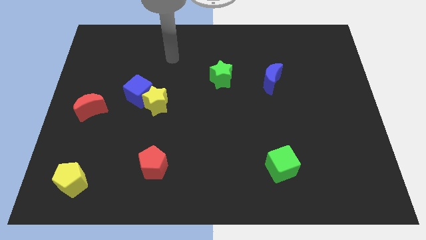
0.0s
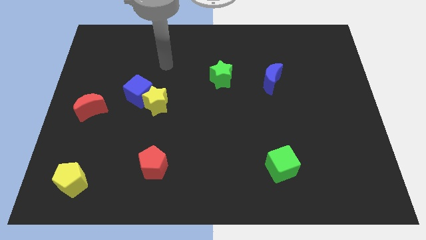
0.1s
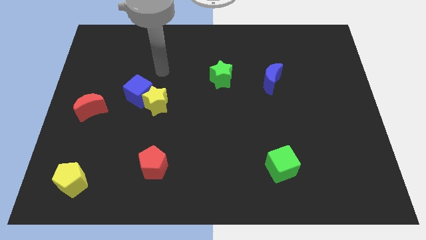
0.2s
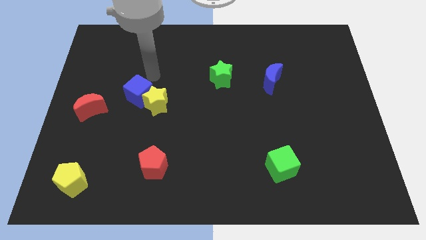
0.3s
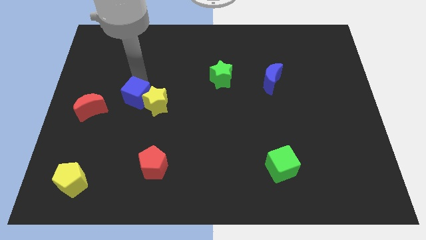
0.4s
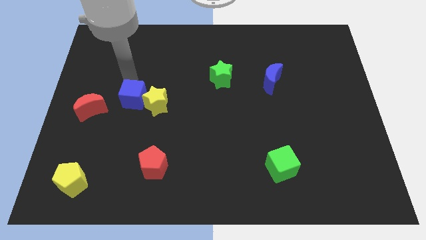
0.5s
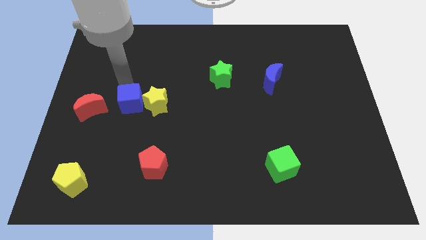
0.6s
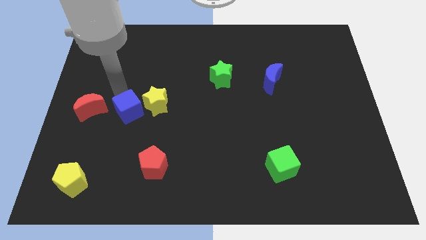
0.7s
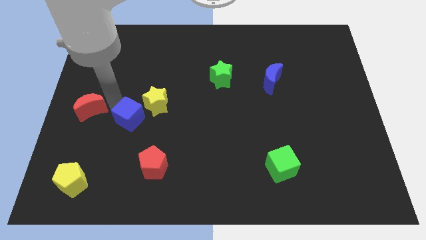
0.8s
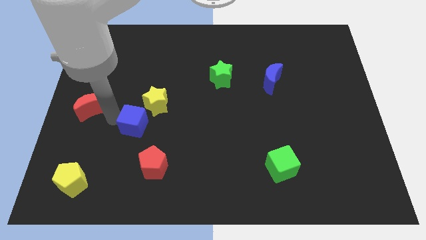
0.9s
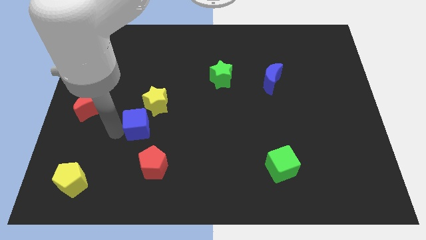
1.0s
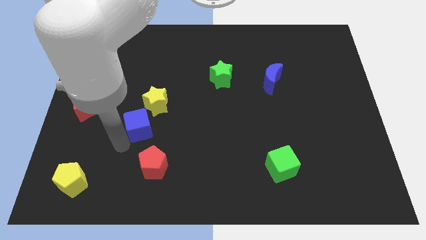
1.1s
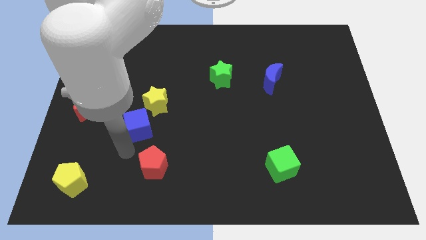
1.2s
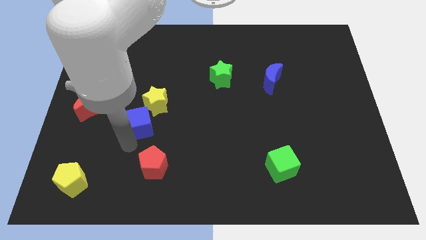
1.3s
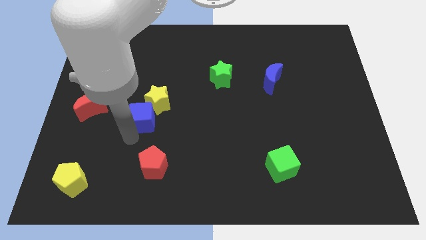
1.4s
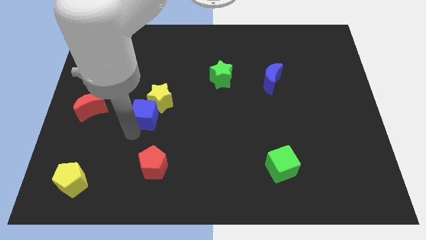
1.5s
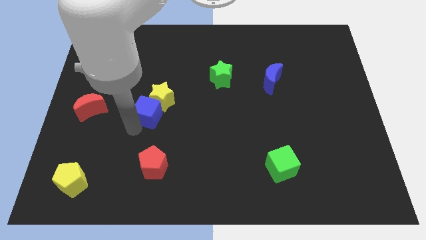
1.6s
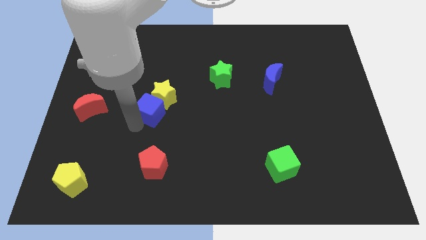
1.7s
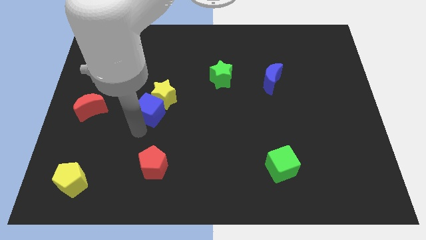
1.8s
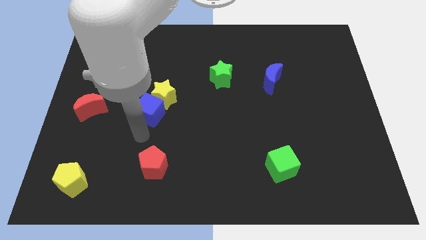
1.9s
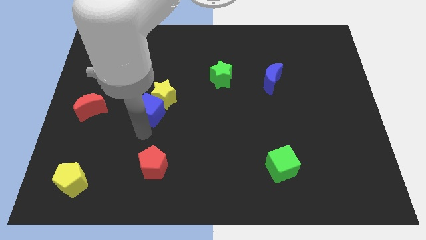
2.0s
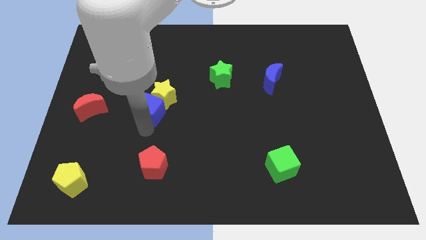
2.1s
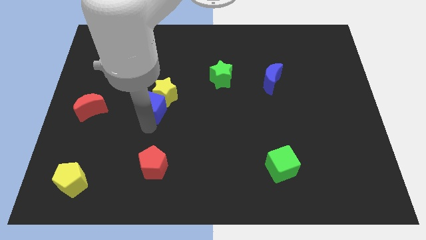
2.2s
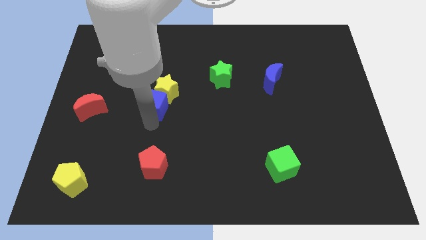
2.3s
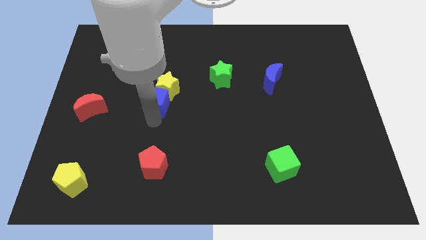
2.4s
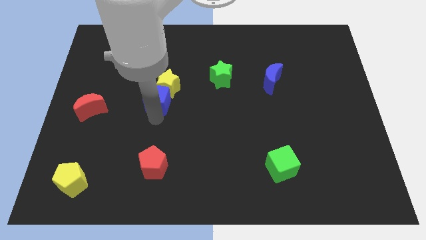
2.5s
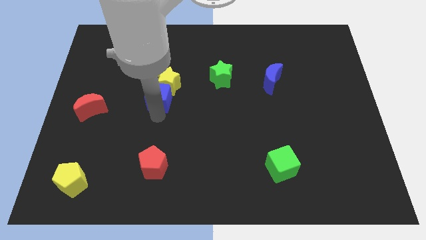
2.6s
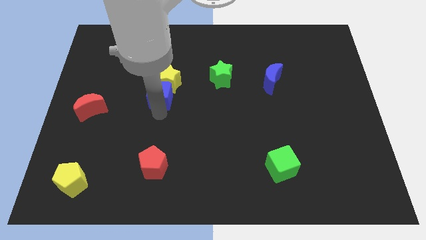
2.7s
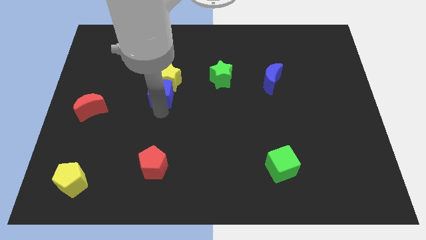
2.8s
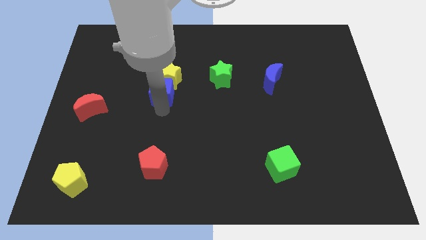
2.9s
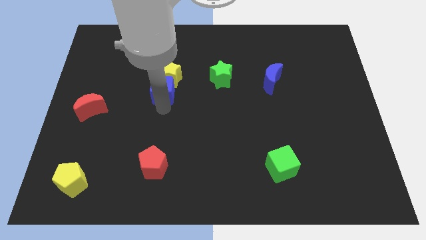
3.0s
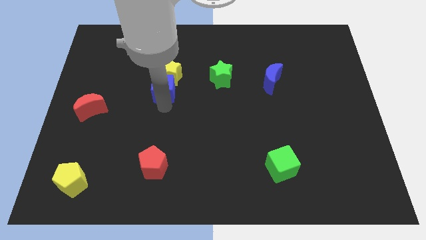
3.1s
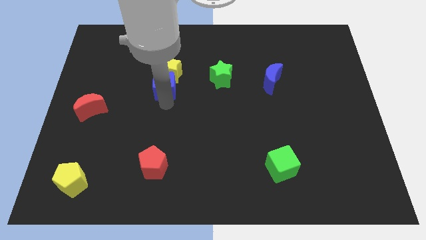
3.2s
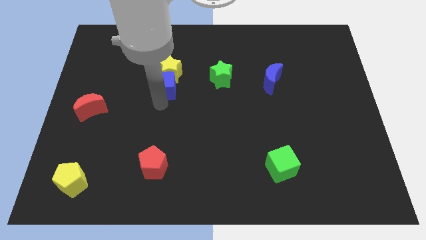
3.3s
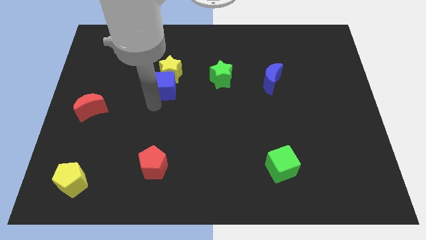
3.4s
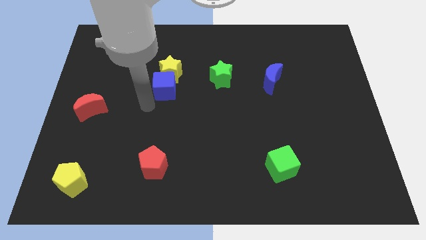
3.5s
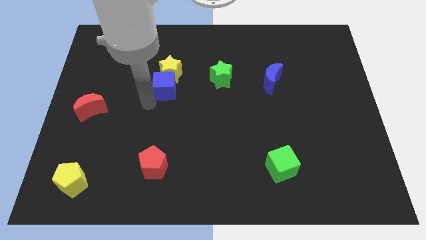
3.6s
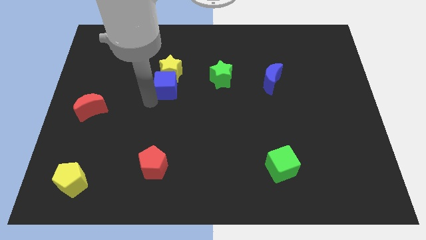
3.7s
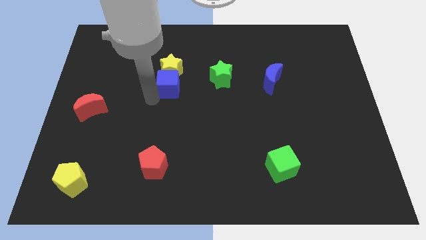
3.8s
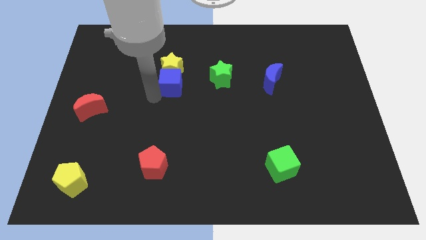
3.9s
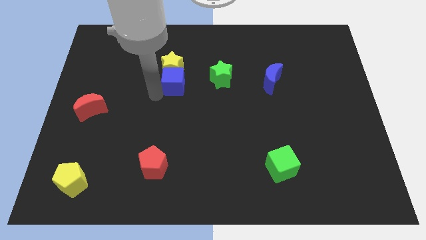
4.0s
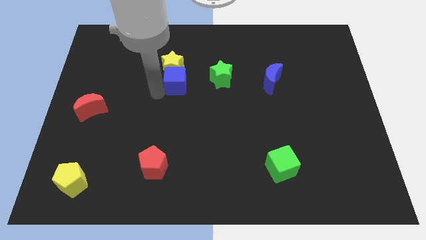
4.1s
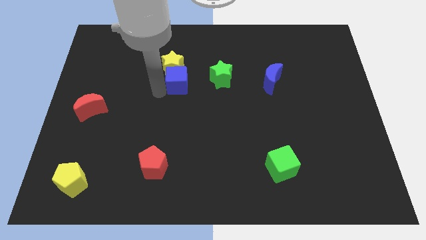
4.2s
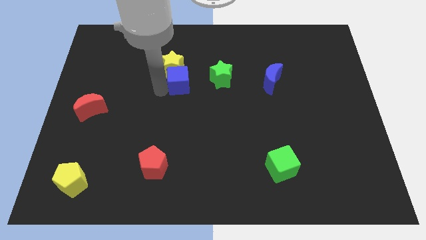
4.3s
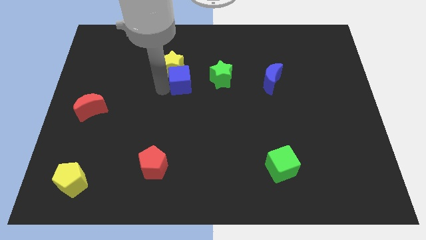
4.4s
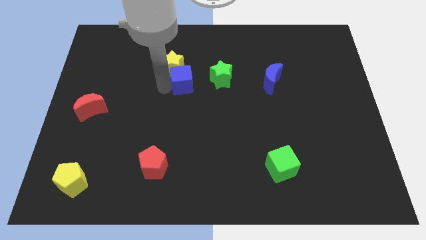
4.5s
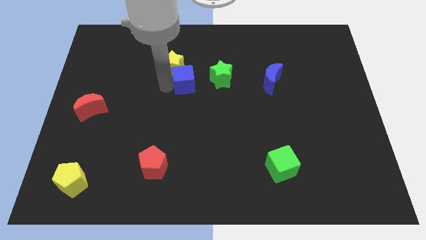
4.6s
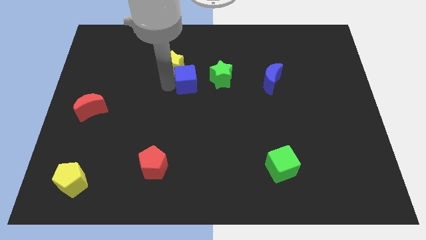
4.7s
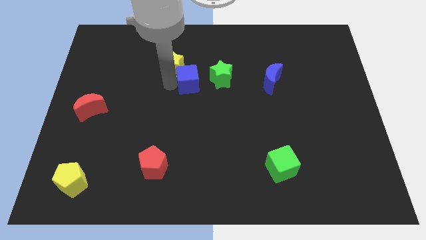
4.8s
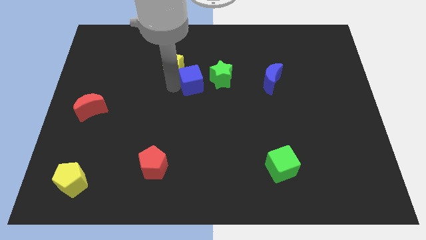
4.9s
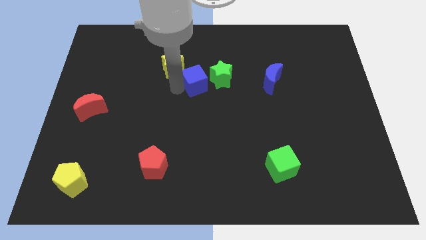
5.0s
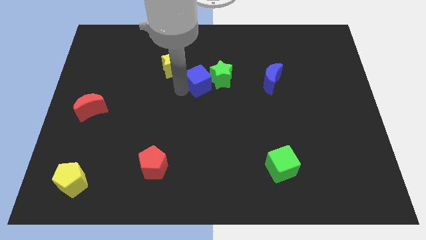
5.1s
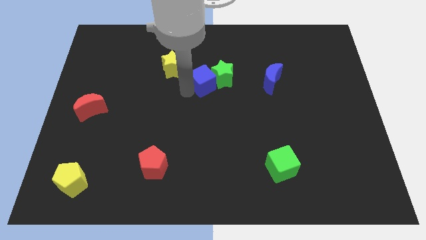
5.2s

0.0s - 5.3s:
put the blue cube to the top left of the green star

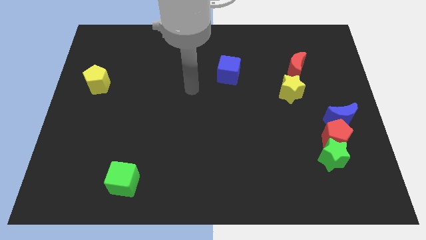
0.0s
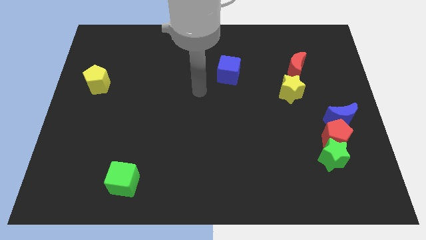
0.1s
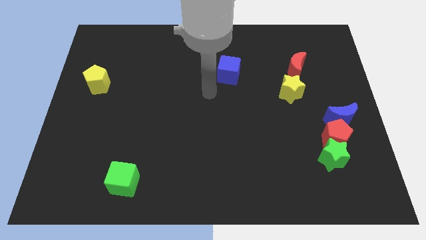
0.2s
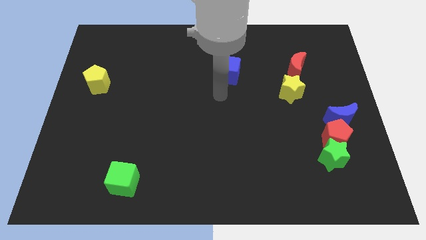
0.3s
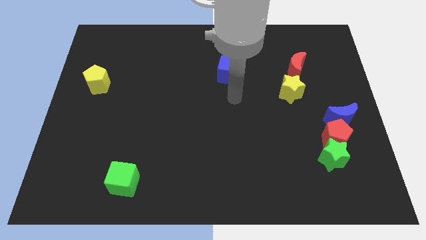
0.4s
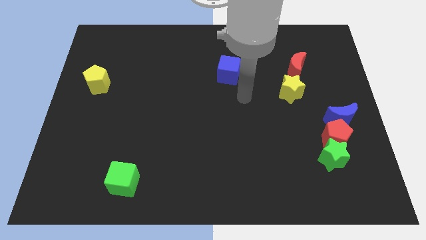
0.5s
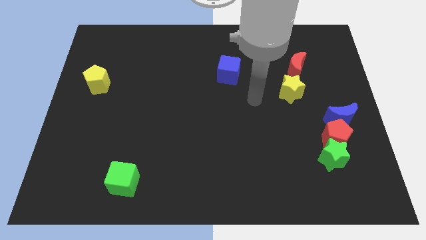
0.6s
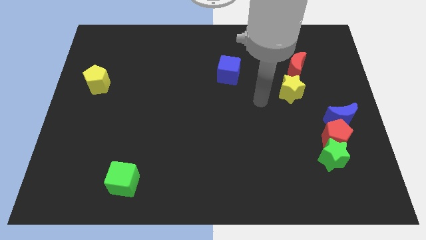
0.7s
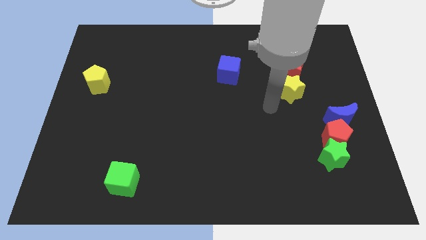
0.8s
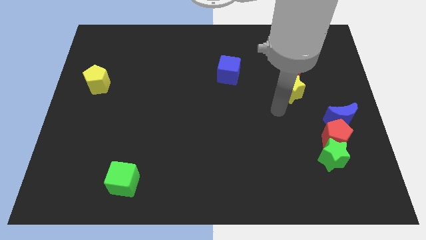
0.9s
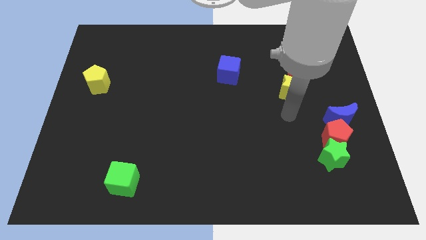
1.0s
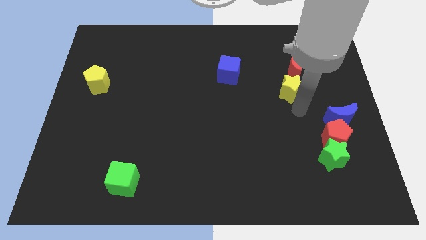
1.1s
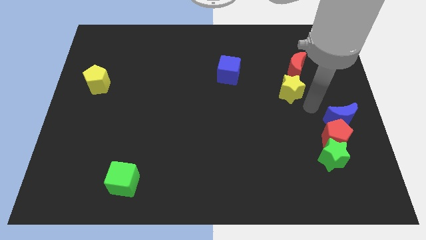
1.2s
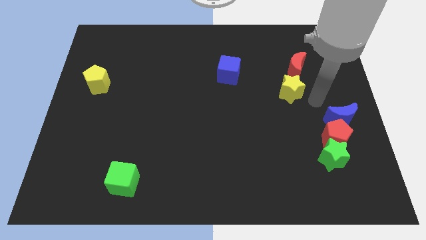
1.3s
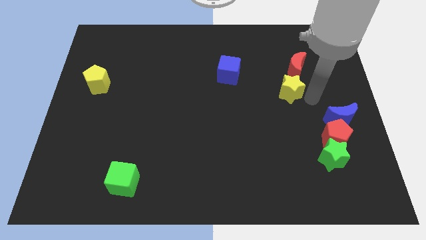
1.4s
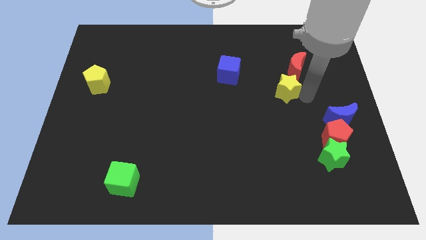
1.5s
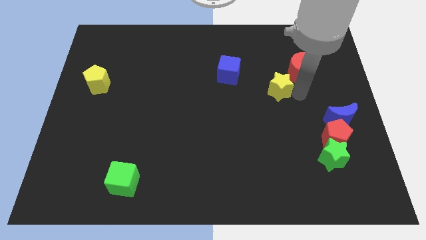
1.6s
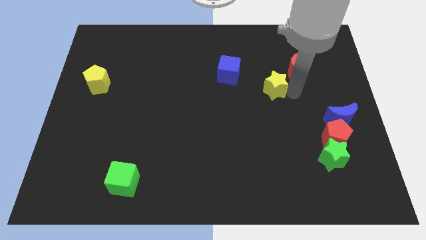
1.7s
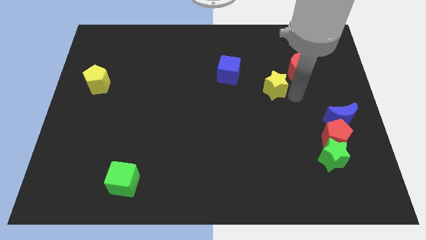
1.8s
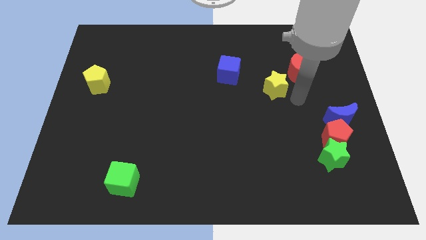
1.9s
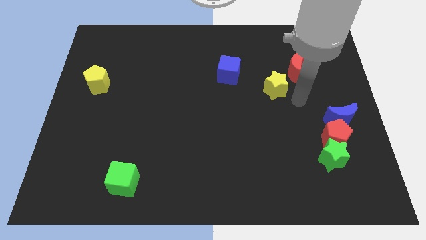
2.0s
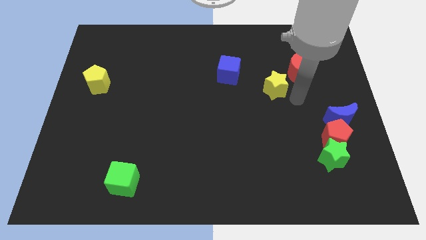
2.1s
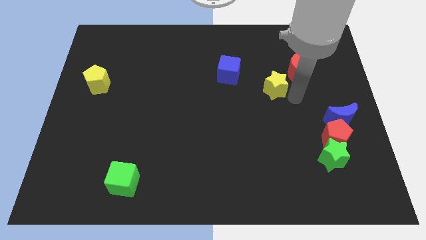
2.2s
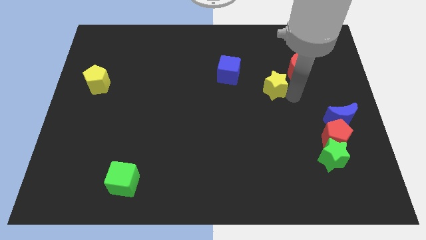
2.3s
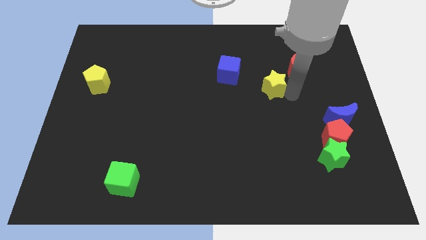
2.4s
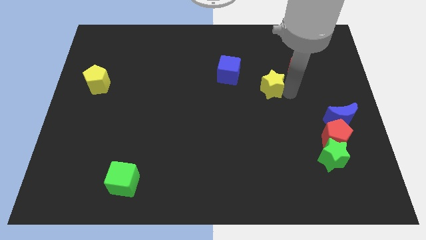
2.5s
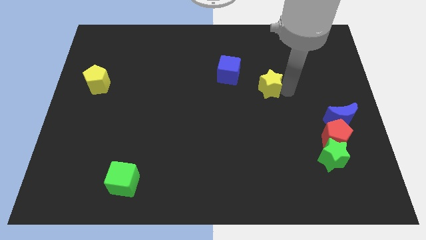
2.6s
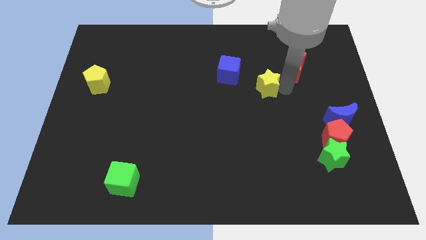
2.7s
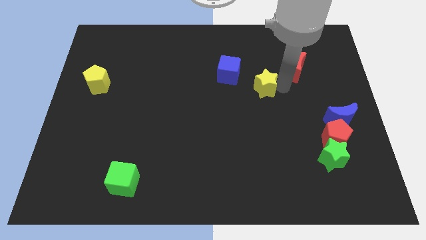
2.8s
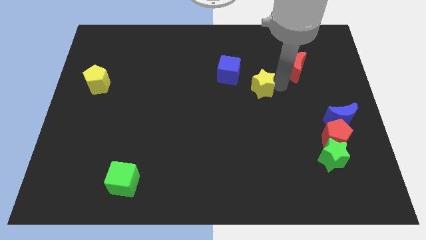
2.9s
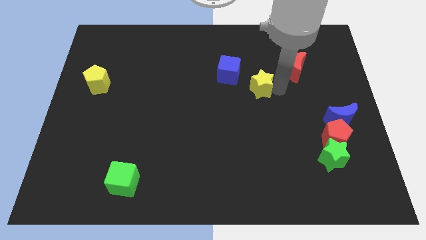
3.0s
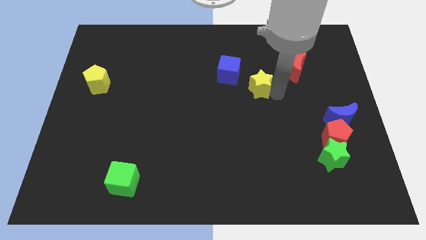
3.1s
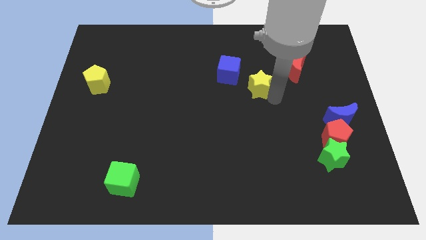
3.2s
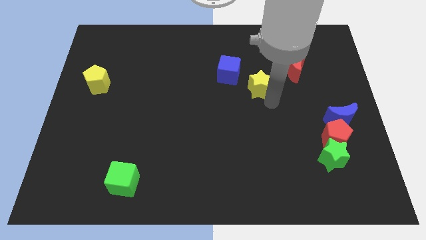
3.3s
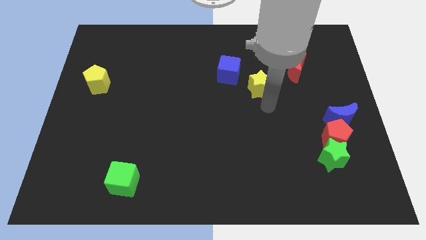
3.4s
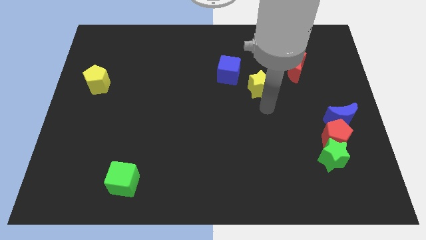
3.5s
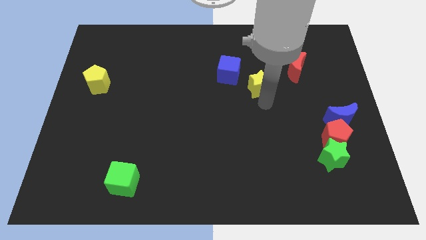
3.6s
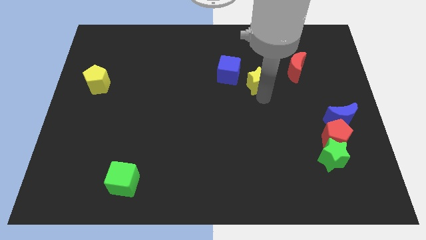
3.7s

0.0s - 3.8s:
slide the yellow star to the left side of the red moon
